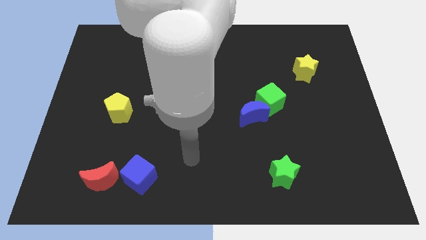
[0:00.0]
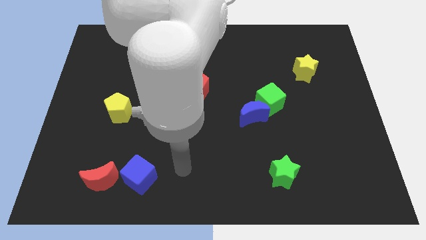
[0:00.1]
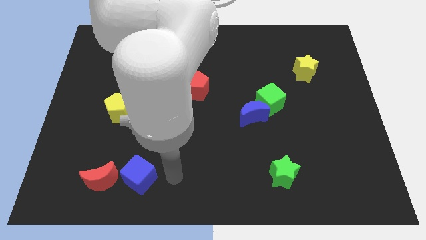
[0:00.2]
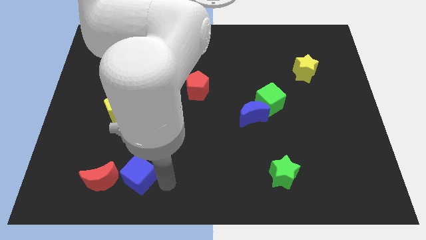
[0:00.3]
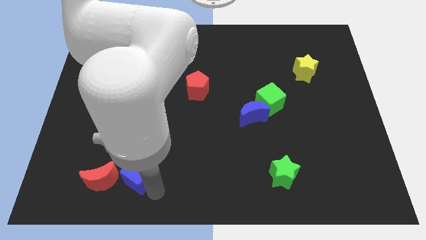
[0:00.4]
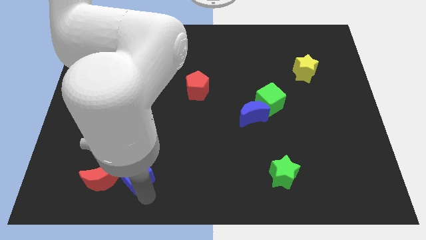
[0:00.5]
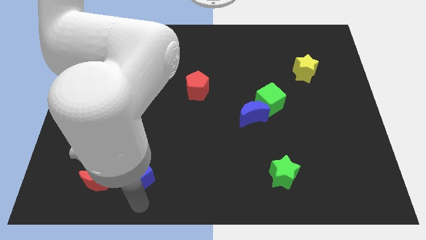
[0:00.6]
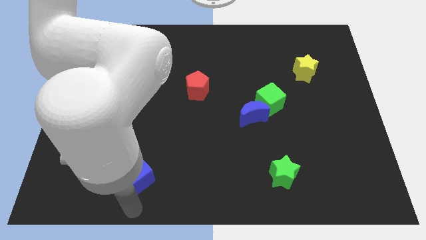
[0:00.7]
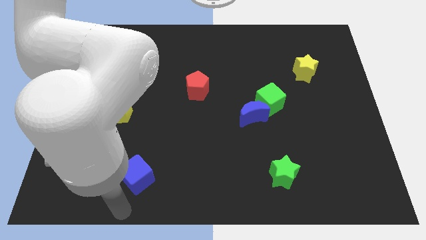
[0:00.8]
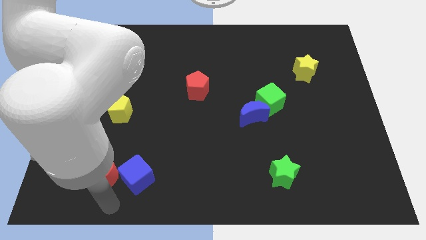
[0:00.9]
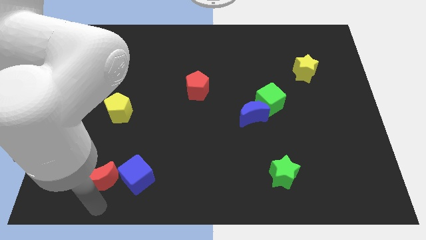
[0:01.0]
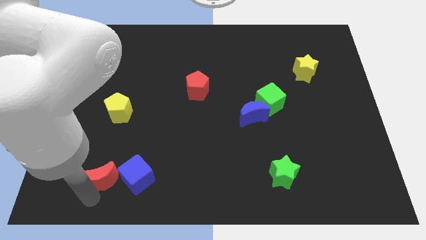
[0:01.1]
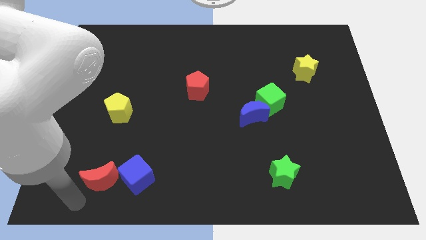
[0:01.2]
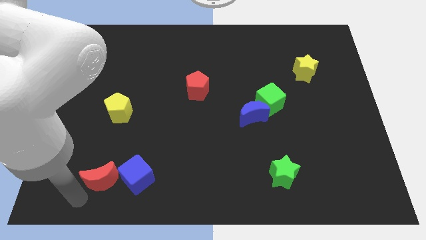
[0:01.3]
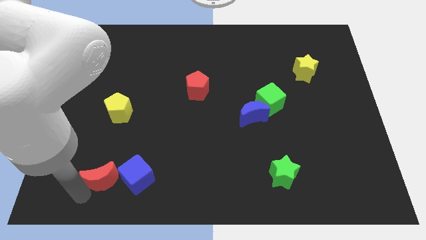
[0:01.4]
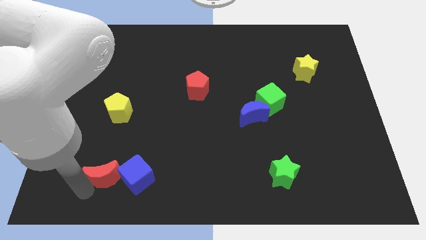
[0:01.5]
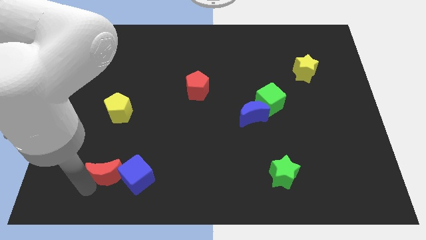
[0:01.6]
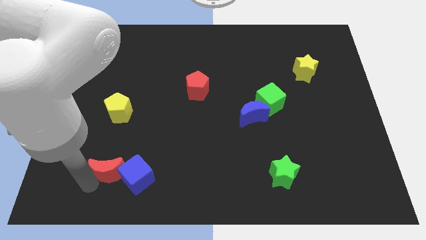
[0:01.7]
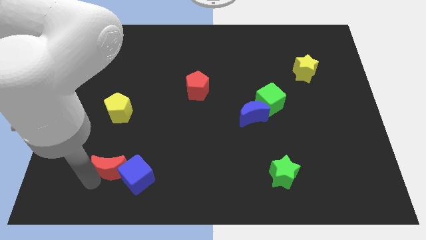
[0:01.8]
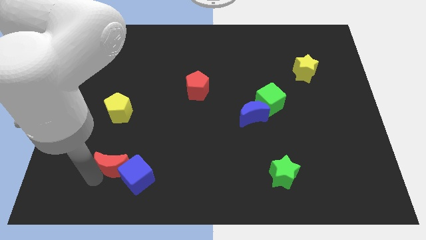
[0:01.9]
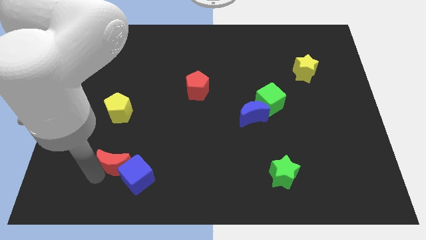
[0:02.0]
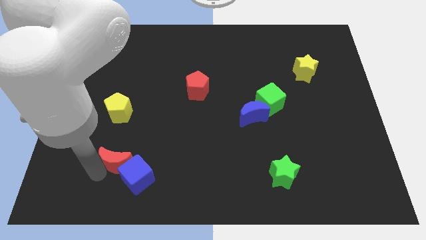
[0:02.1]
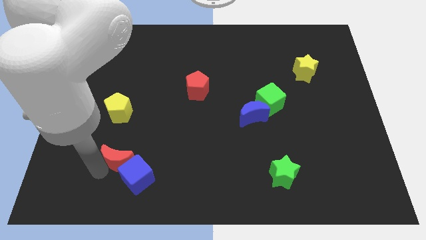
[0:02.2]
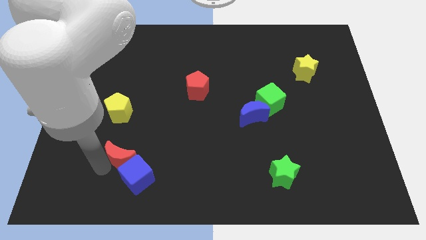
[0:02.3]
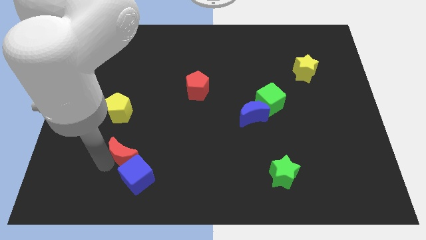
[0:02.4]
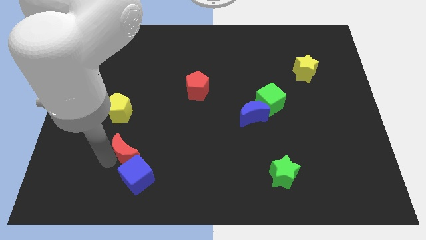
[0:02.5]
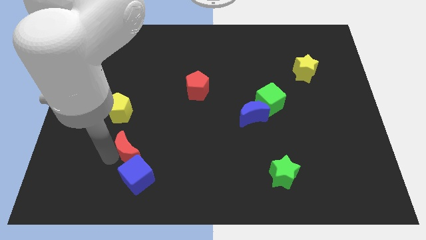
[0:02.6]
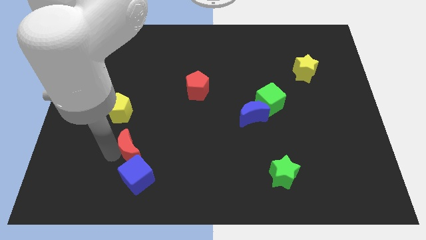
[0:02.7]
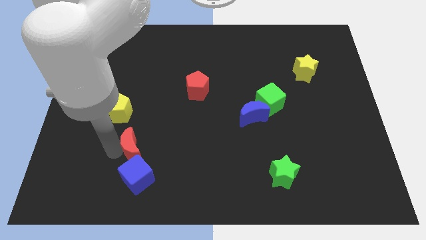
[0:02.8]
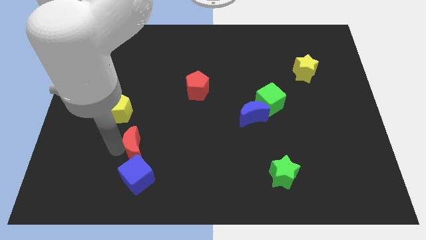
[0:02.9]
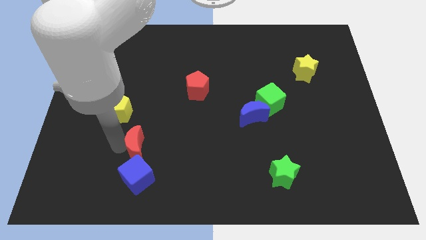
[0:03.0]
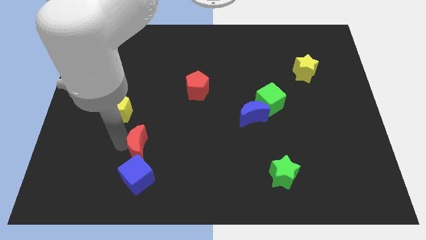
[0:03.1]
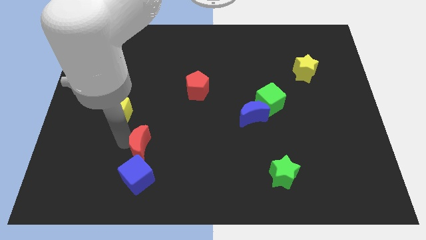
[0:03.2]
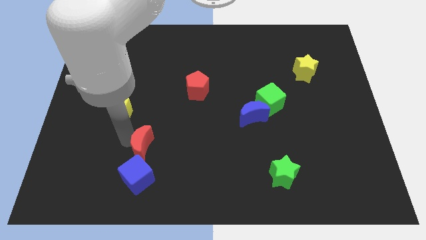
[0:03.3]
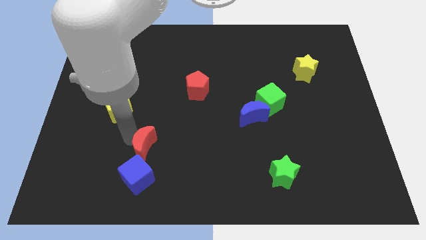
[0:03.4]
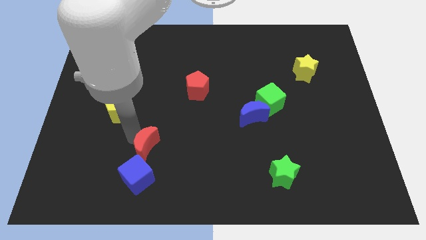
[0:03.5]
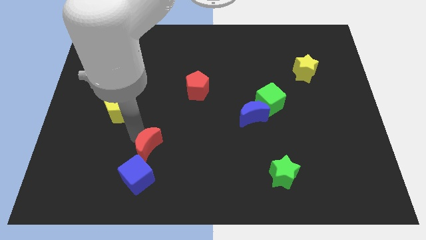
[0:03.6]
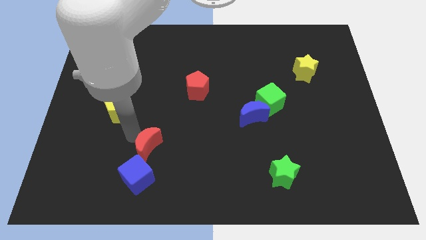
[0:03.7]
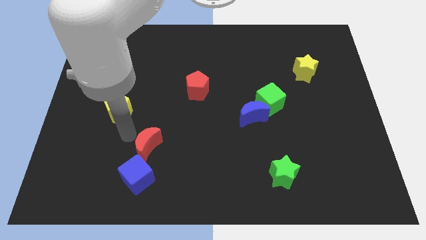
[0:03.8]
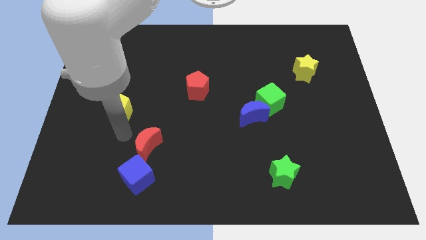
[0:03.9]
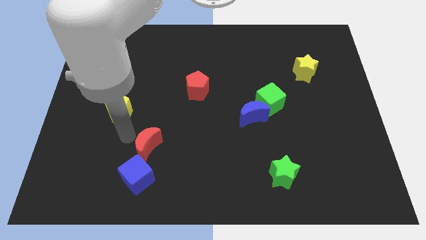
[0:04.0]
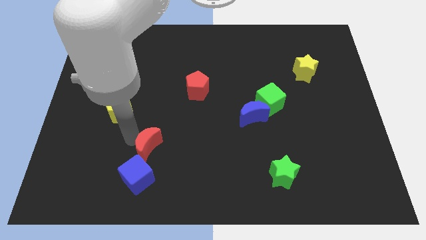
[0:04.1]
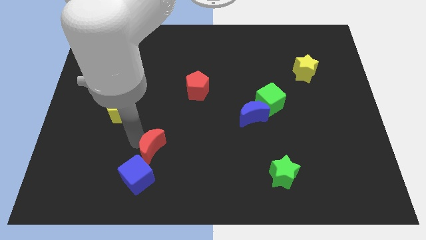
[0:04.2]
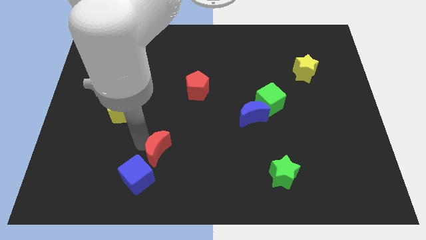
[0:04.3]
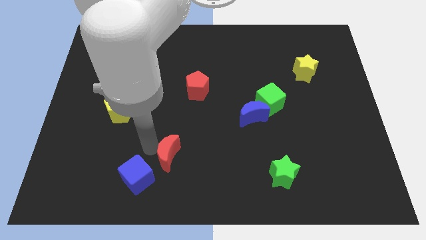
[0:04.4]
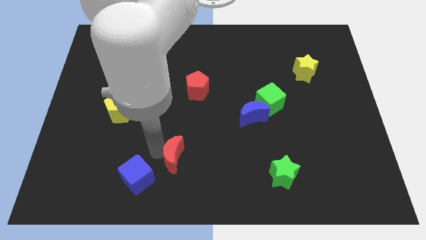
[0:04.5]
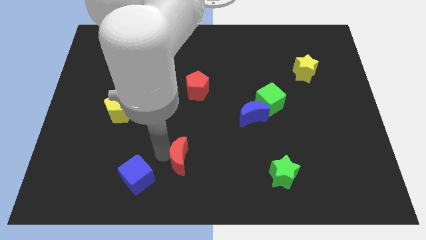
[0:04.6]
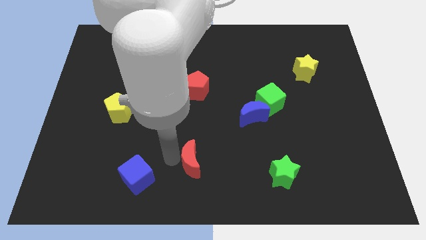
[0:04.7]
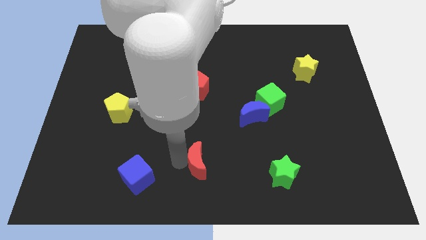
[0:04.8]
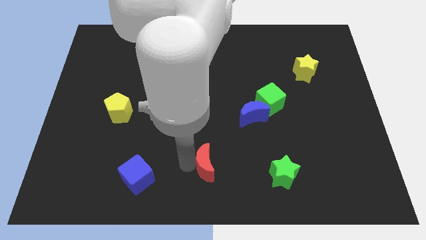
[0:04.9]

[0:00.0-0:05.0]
push the red moon to the right

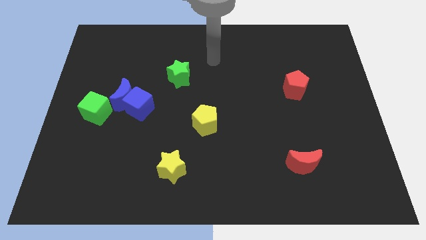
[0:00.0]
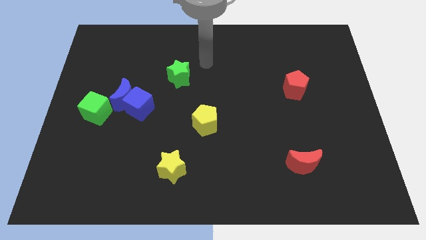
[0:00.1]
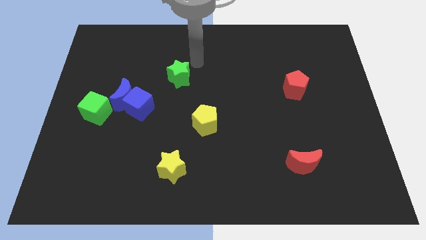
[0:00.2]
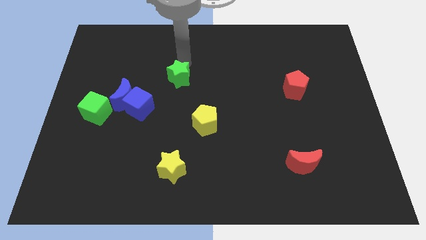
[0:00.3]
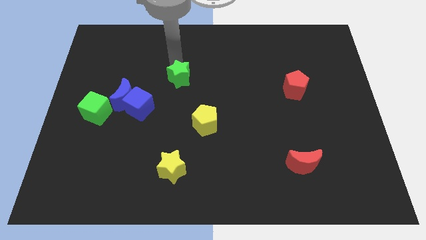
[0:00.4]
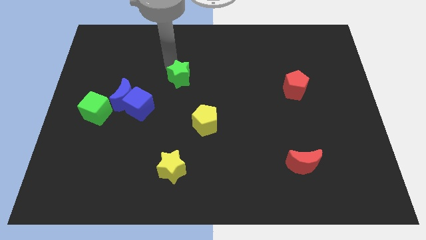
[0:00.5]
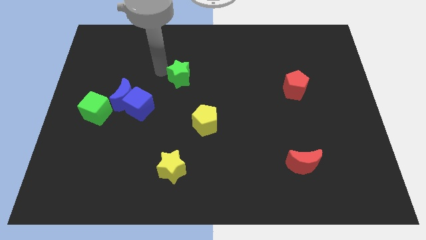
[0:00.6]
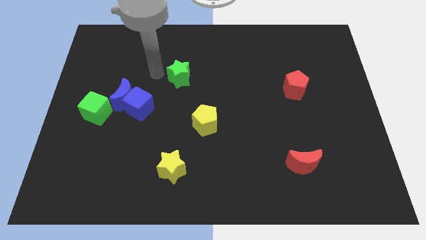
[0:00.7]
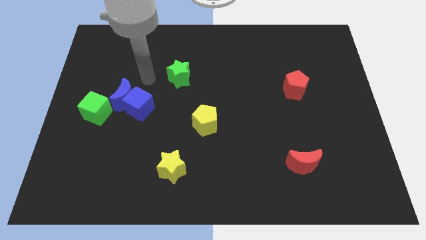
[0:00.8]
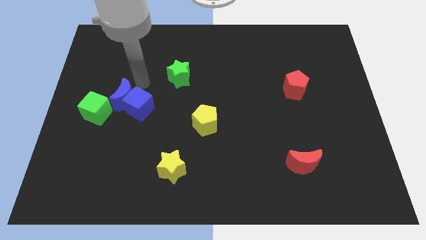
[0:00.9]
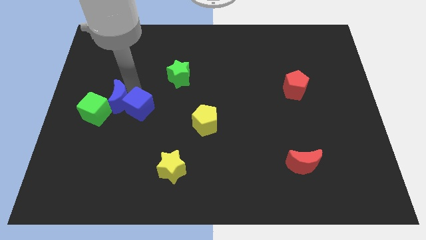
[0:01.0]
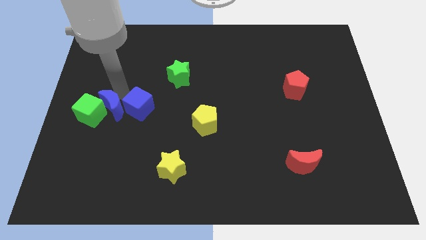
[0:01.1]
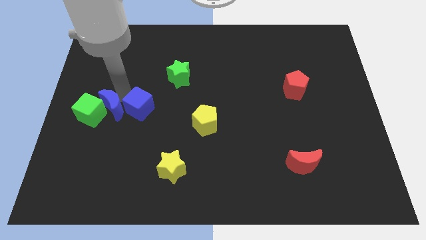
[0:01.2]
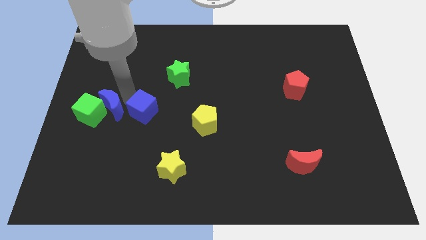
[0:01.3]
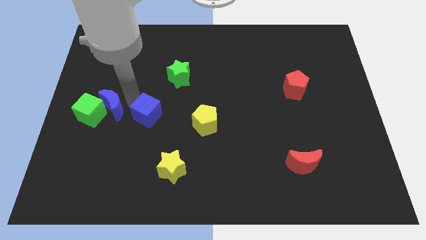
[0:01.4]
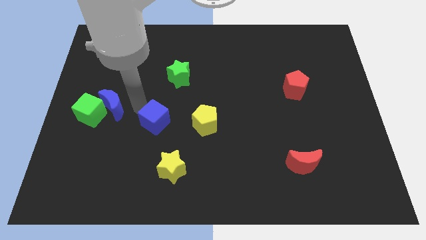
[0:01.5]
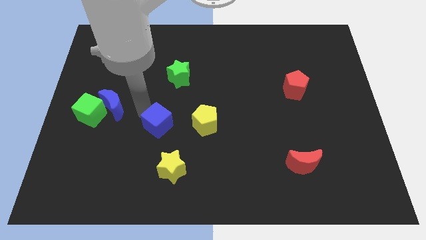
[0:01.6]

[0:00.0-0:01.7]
slightly slide the blue cube downwards and right diagonally

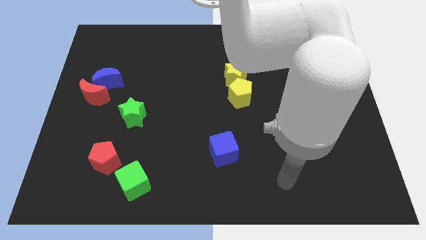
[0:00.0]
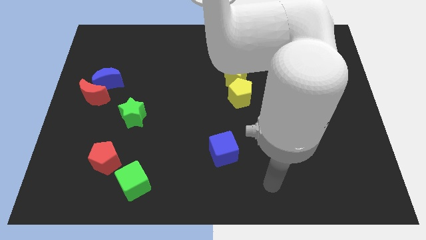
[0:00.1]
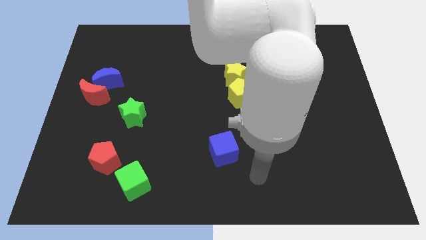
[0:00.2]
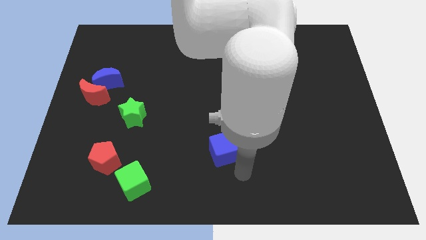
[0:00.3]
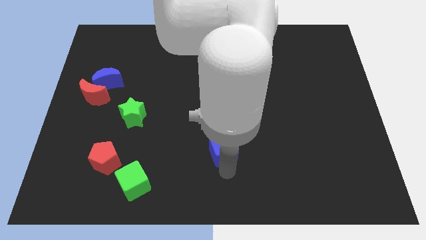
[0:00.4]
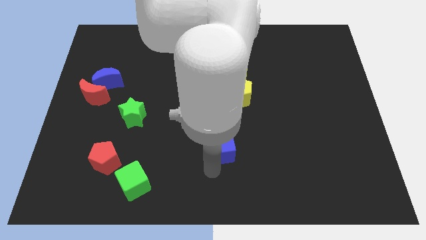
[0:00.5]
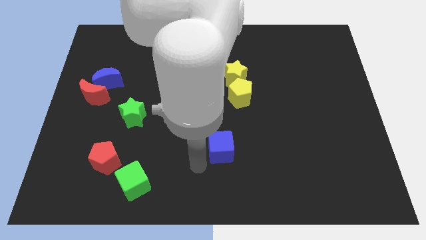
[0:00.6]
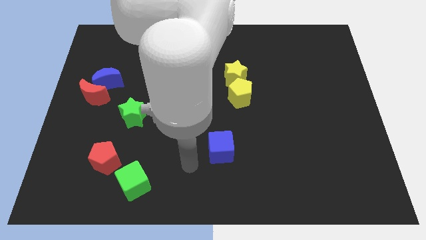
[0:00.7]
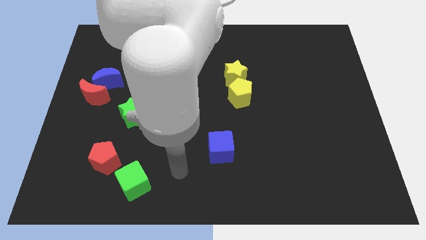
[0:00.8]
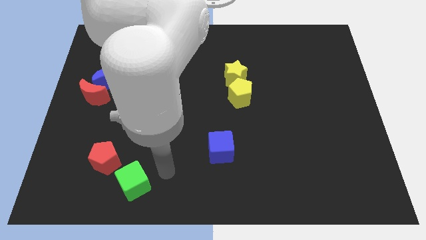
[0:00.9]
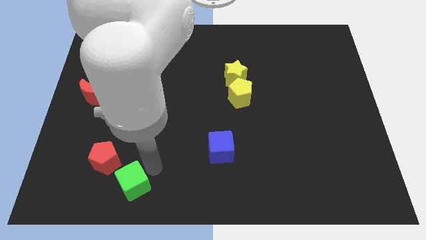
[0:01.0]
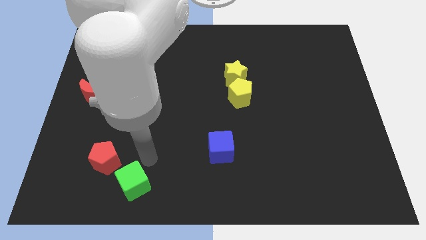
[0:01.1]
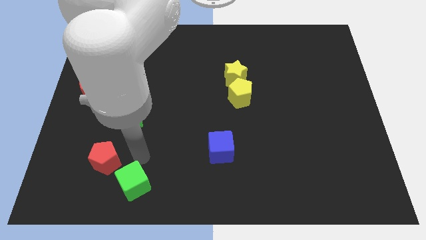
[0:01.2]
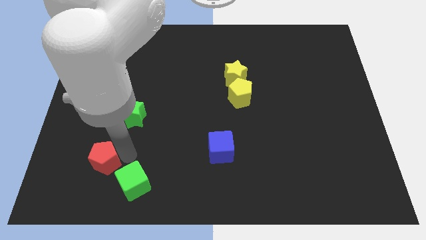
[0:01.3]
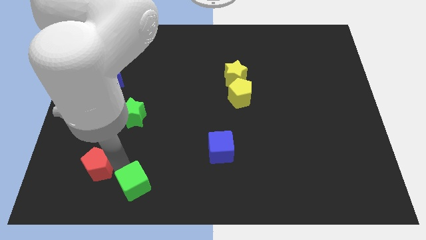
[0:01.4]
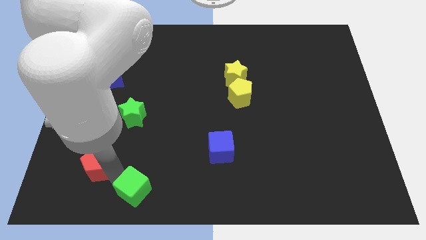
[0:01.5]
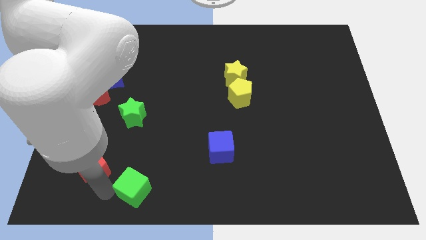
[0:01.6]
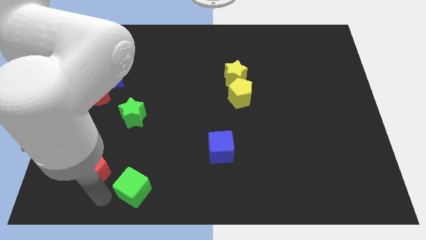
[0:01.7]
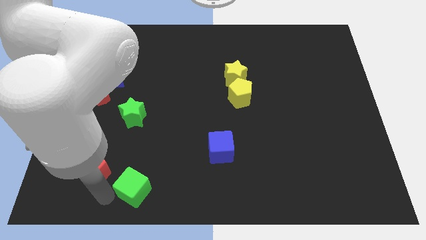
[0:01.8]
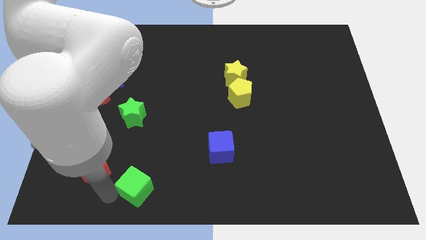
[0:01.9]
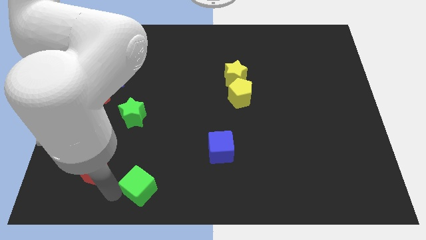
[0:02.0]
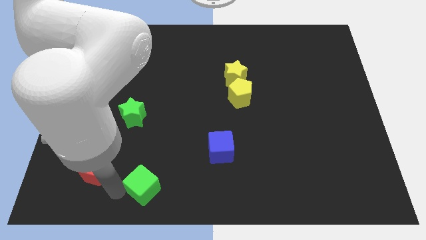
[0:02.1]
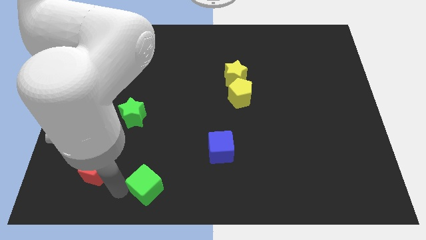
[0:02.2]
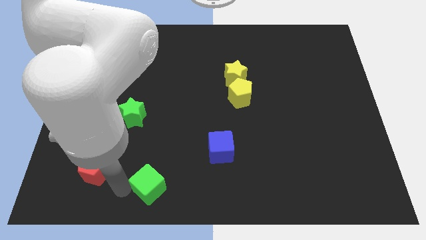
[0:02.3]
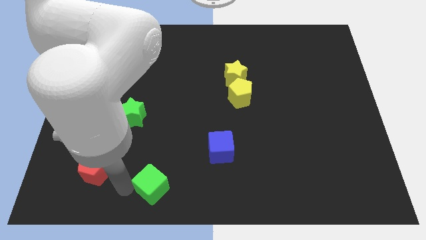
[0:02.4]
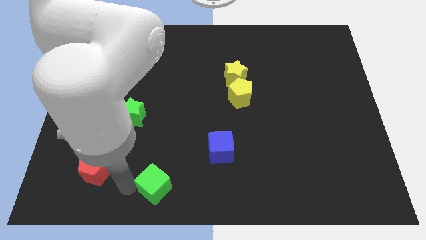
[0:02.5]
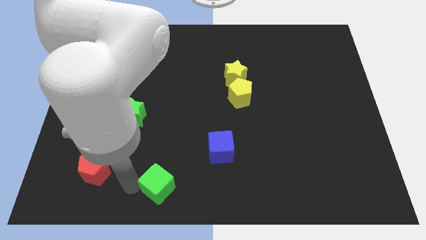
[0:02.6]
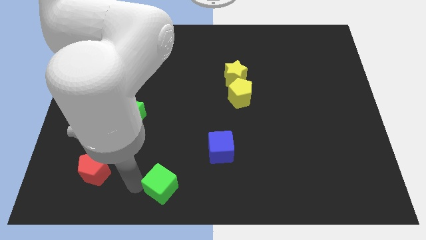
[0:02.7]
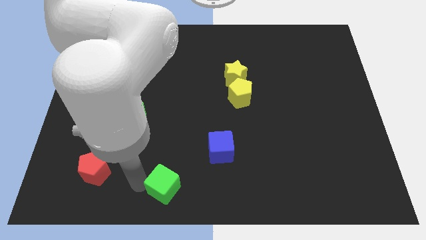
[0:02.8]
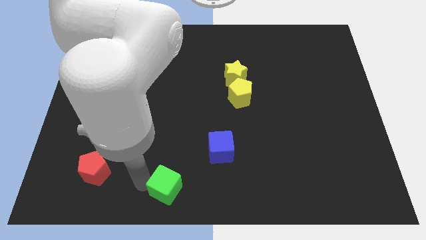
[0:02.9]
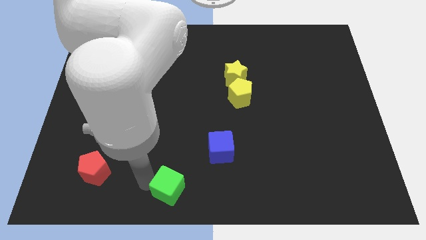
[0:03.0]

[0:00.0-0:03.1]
slightly push the green cube right
